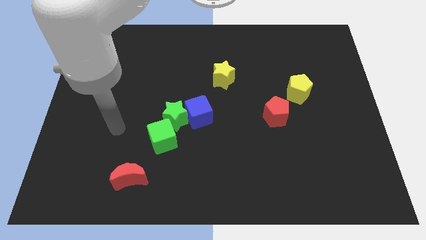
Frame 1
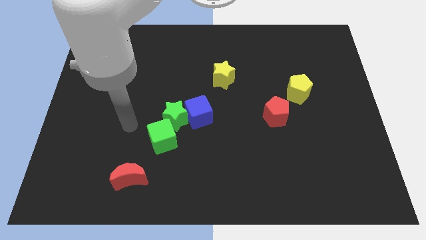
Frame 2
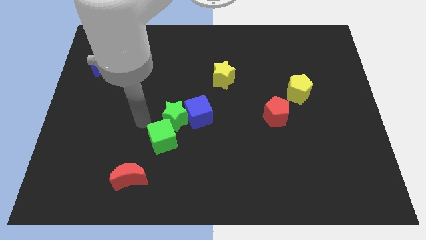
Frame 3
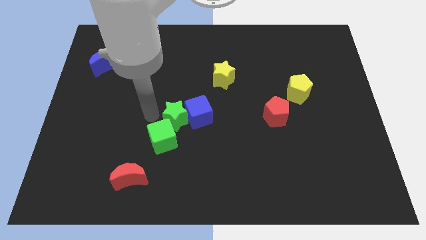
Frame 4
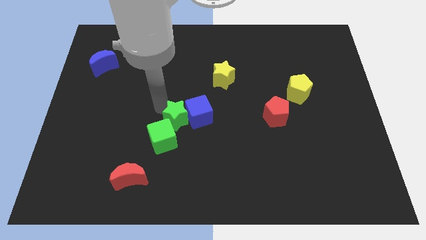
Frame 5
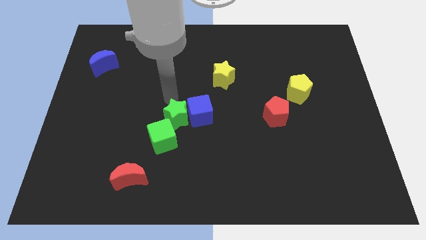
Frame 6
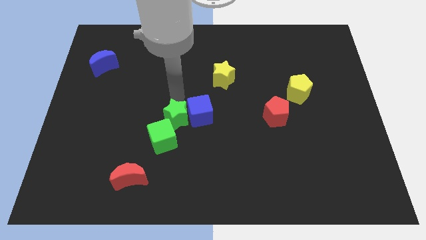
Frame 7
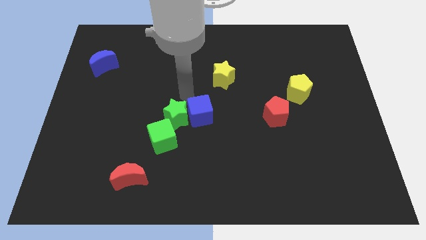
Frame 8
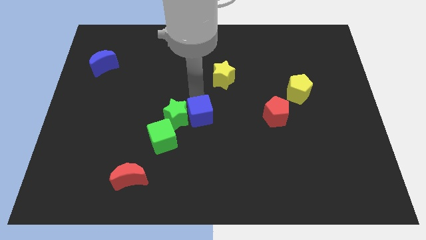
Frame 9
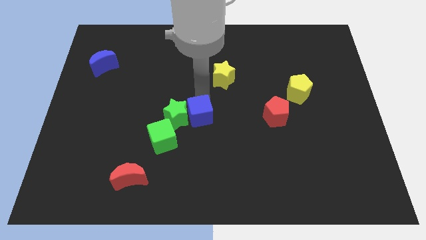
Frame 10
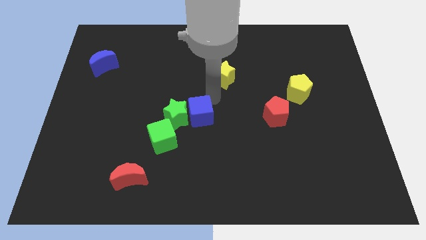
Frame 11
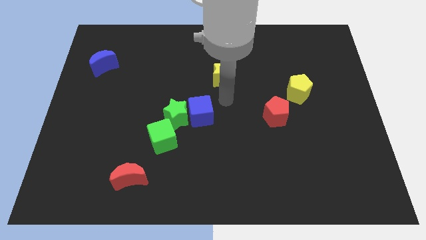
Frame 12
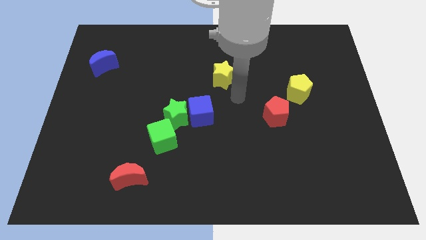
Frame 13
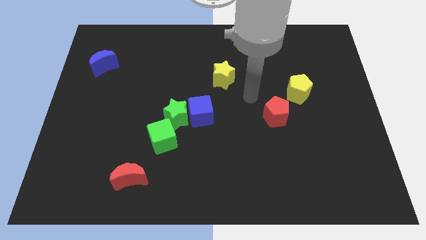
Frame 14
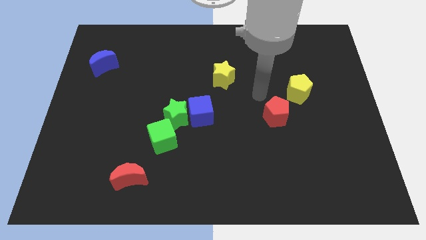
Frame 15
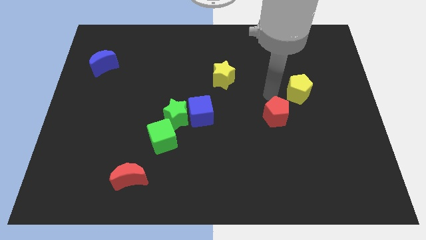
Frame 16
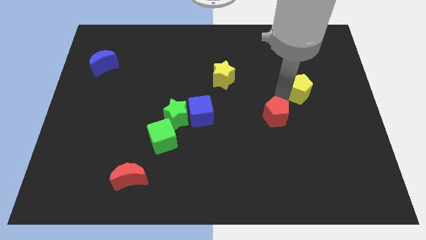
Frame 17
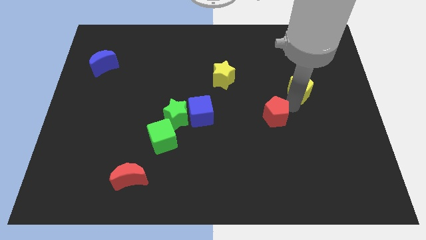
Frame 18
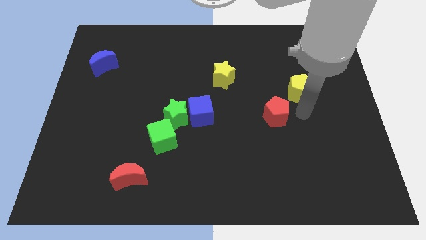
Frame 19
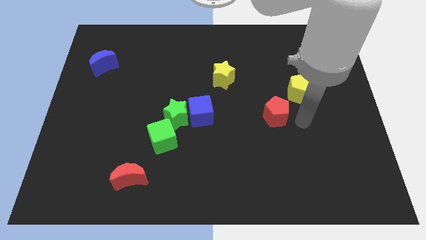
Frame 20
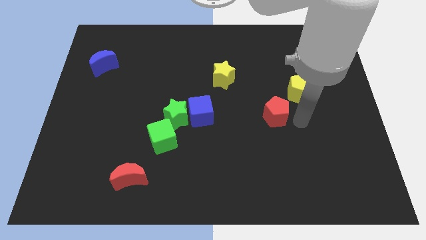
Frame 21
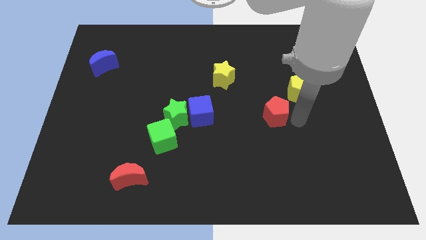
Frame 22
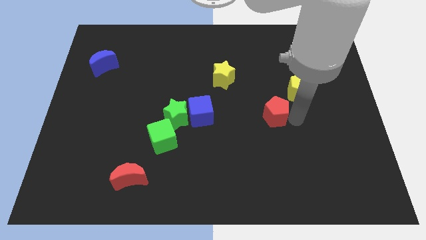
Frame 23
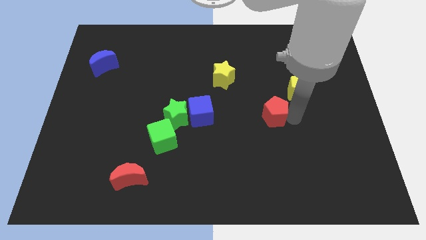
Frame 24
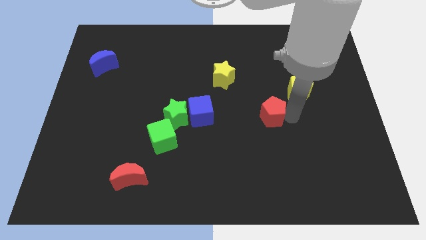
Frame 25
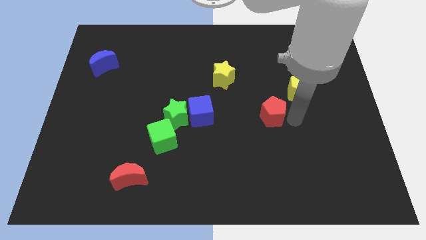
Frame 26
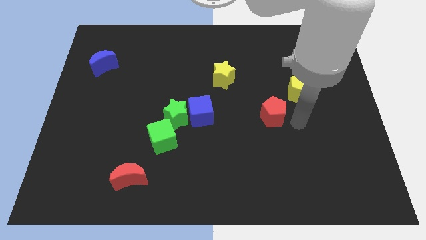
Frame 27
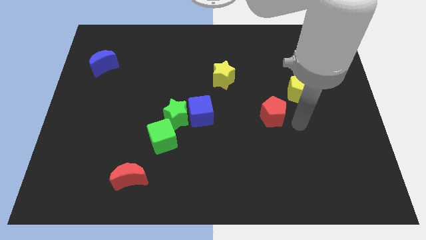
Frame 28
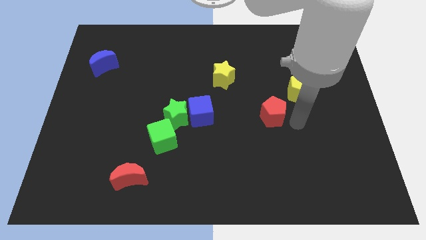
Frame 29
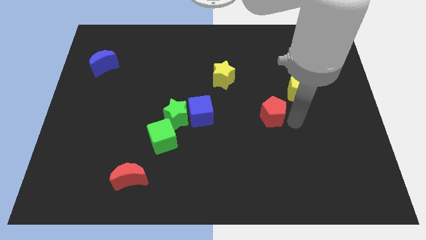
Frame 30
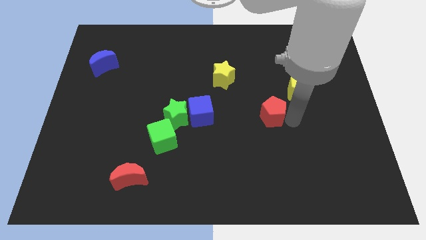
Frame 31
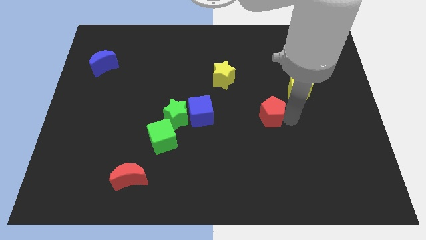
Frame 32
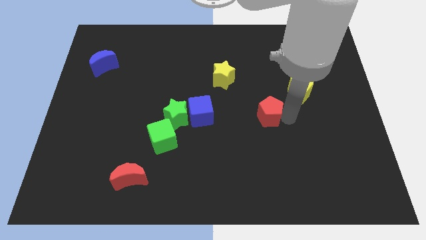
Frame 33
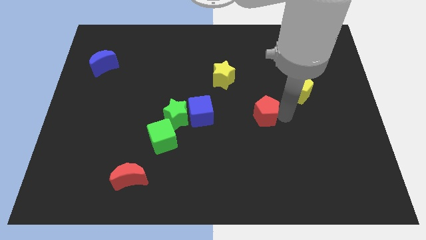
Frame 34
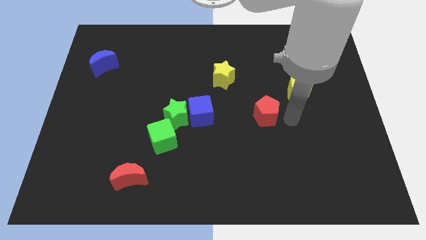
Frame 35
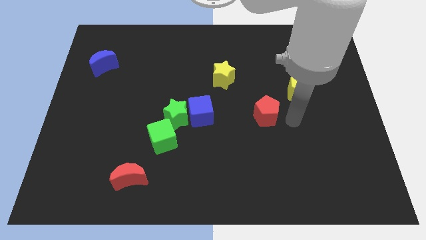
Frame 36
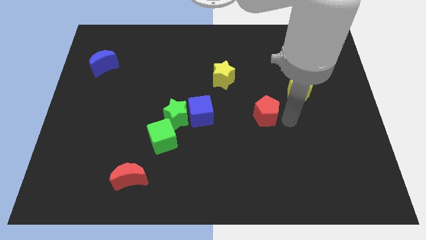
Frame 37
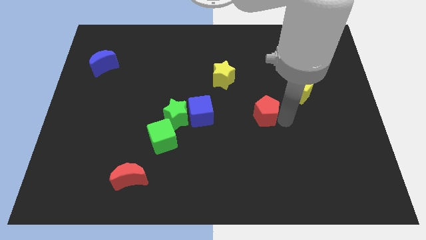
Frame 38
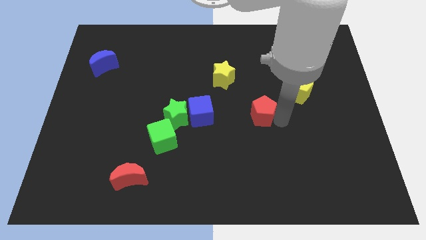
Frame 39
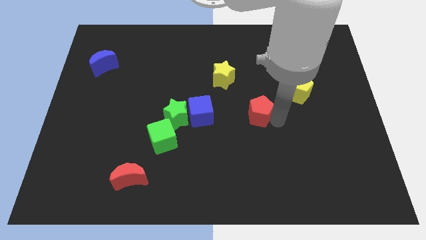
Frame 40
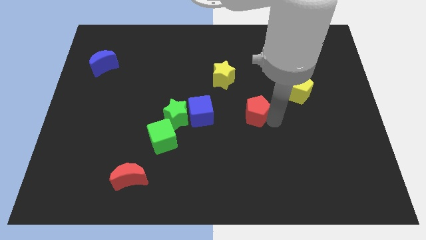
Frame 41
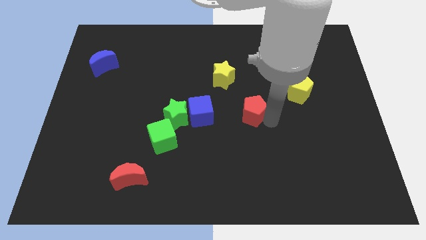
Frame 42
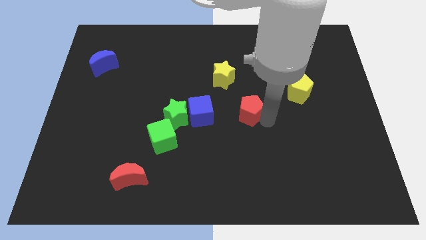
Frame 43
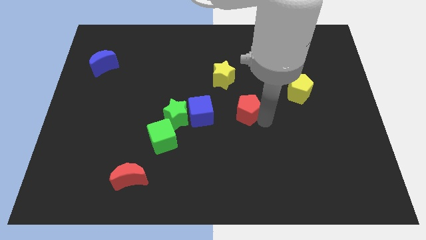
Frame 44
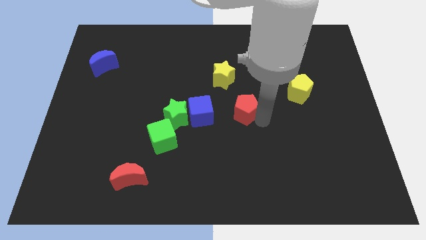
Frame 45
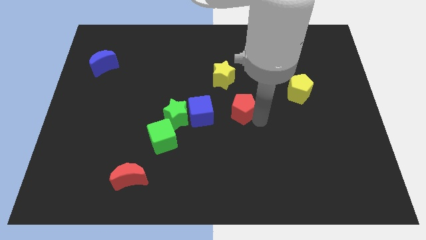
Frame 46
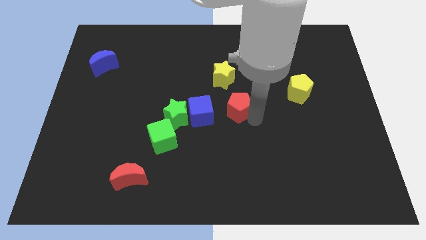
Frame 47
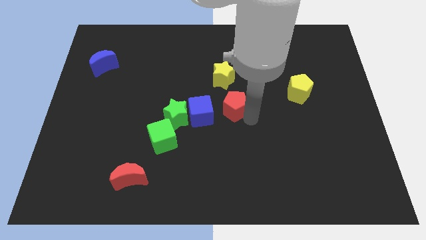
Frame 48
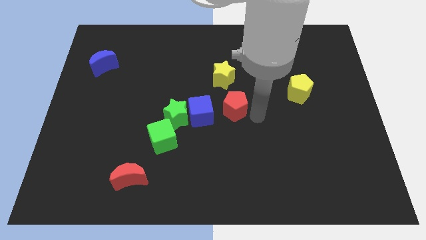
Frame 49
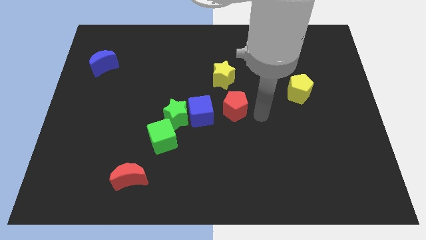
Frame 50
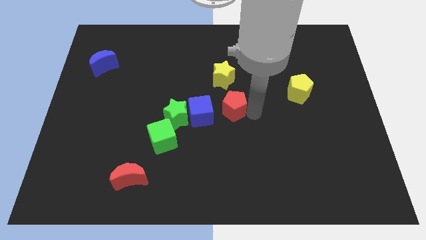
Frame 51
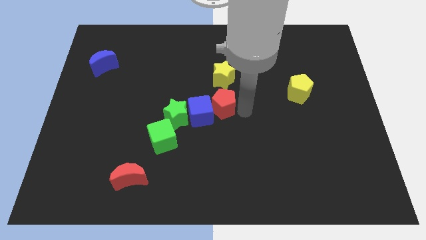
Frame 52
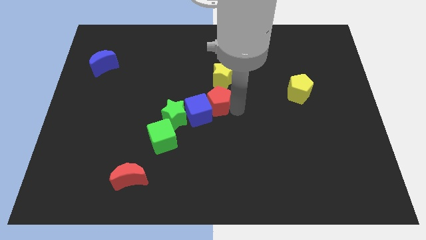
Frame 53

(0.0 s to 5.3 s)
move the red pentagon to the top right side of the green star

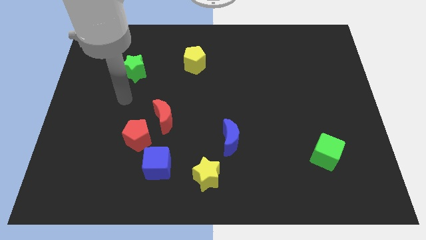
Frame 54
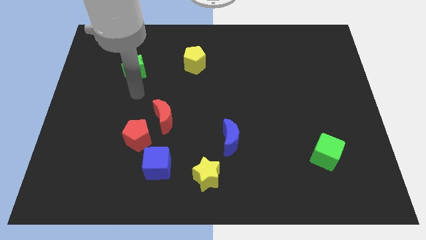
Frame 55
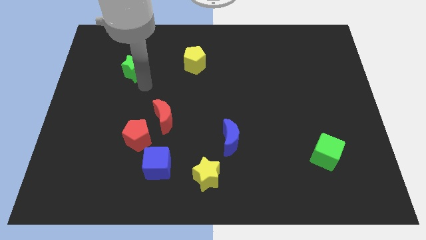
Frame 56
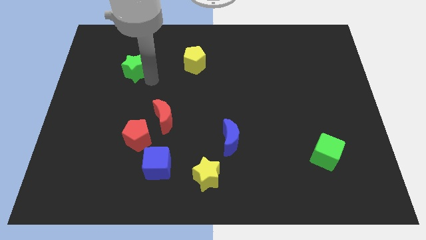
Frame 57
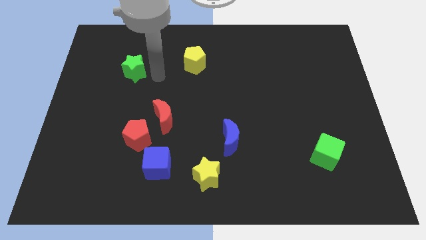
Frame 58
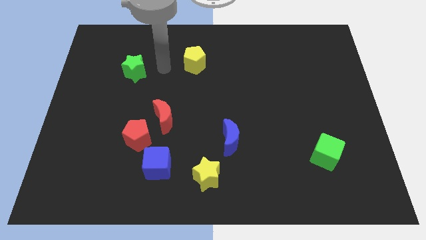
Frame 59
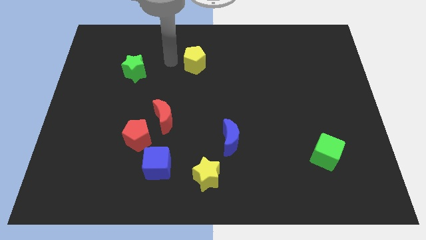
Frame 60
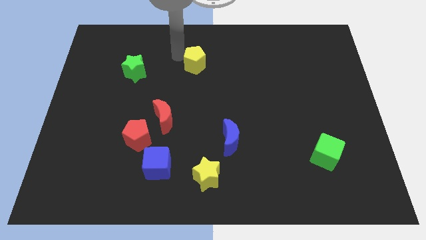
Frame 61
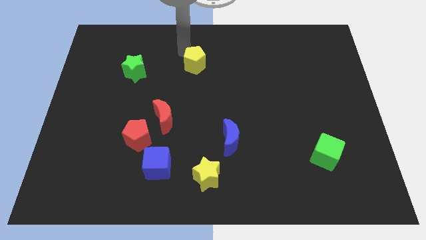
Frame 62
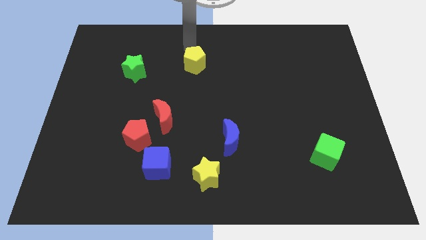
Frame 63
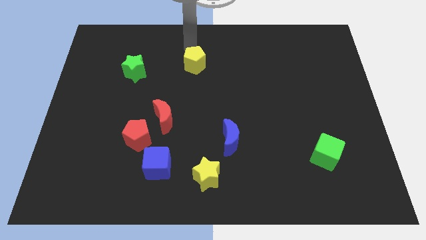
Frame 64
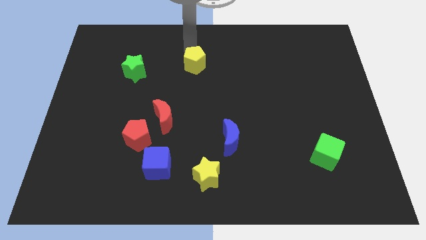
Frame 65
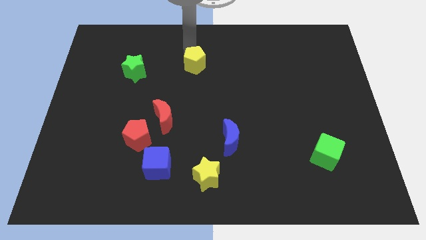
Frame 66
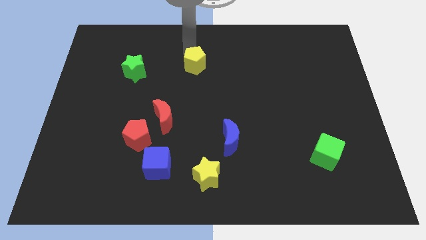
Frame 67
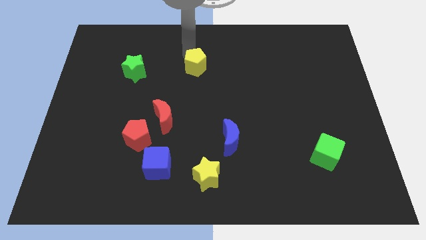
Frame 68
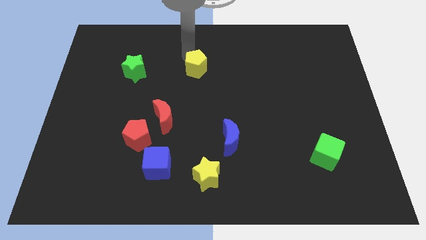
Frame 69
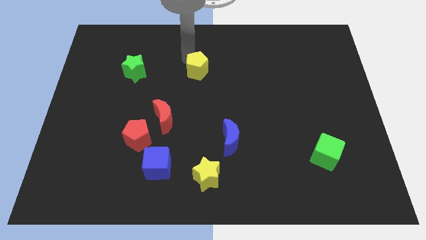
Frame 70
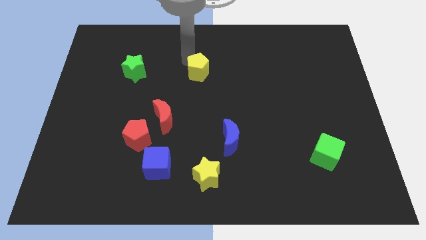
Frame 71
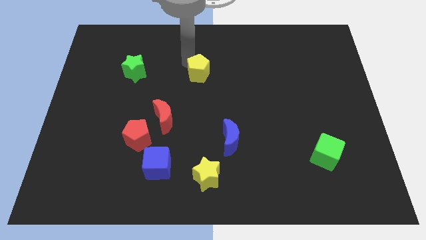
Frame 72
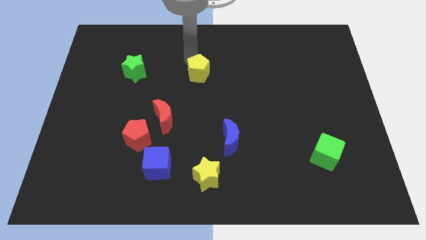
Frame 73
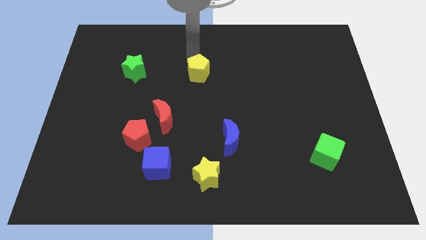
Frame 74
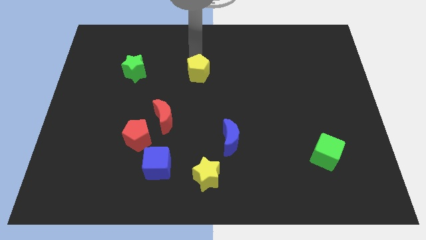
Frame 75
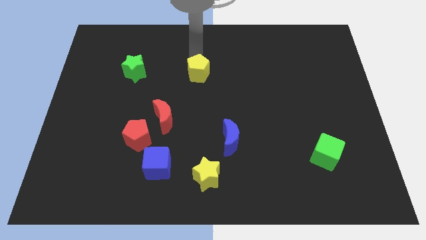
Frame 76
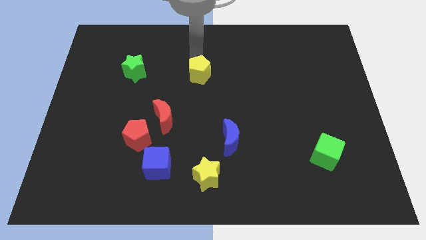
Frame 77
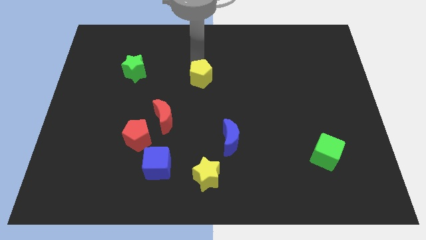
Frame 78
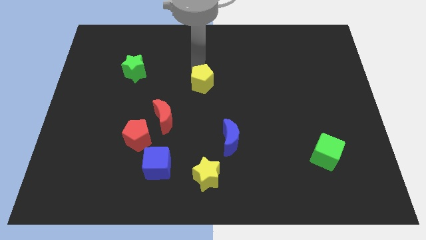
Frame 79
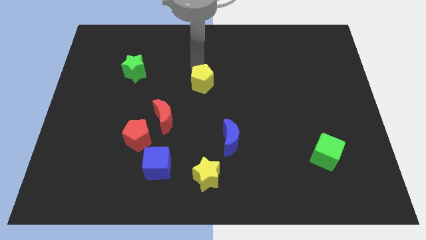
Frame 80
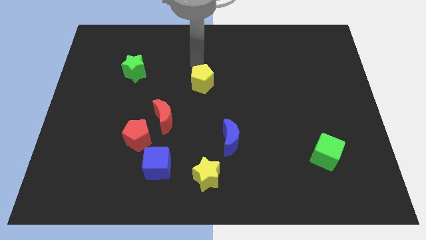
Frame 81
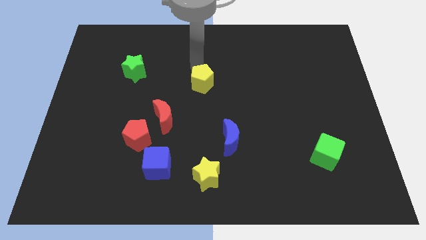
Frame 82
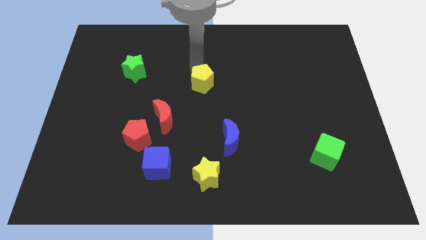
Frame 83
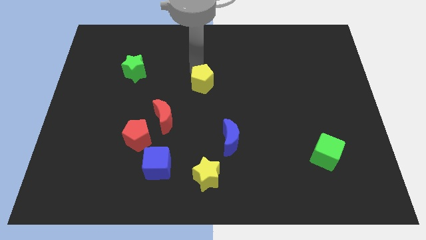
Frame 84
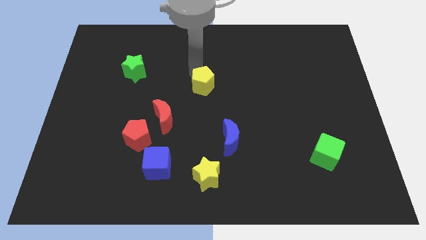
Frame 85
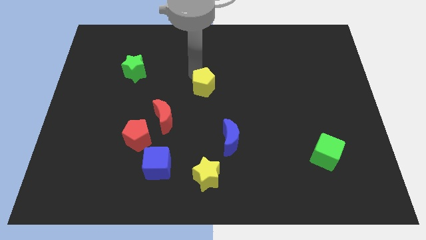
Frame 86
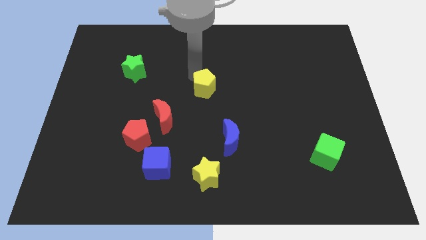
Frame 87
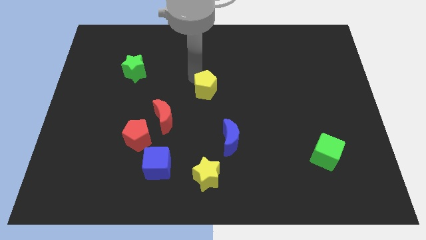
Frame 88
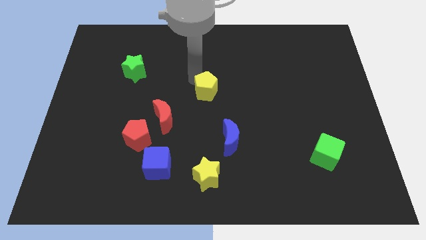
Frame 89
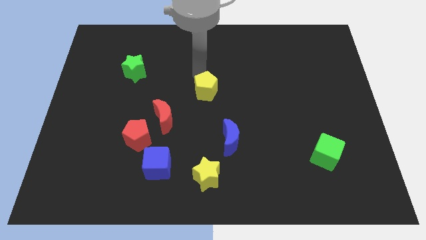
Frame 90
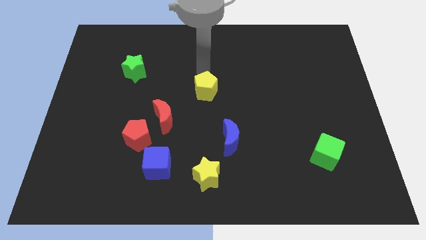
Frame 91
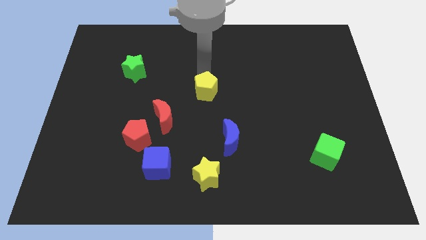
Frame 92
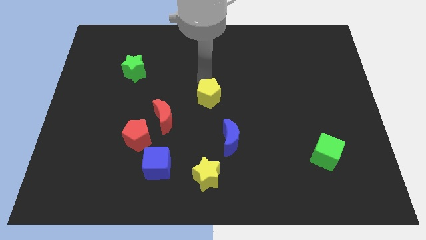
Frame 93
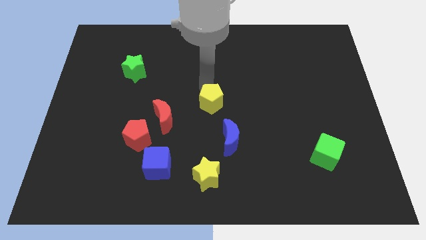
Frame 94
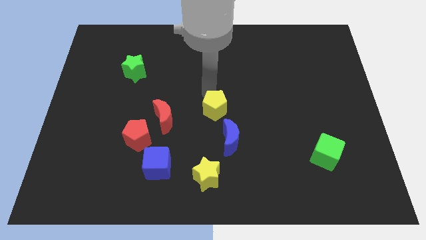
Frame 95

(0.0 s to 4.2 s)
slide the yellow pentagon to the top left side of the blue moon
